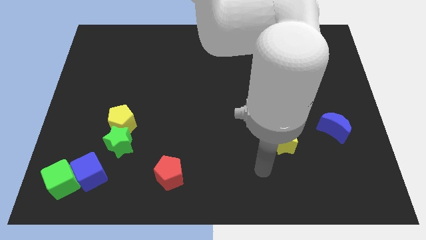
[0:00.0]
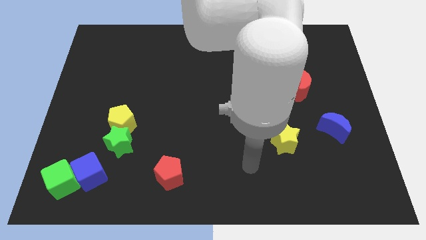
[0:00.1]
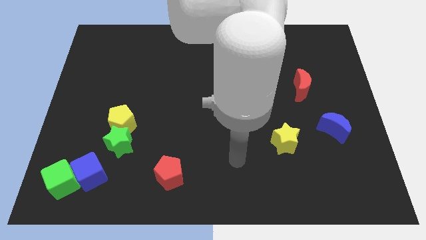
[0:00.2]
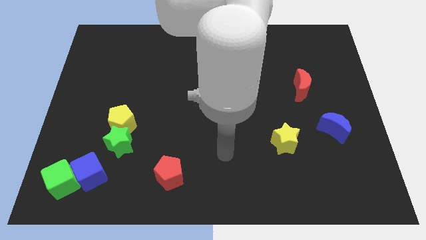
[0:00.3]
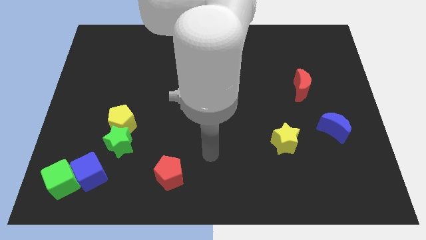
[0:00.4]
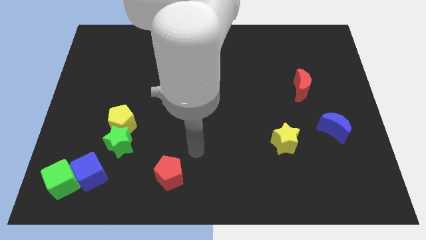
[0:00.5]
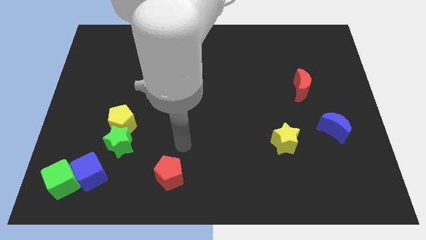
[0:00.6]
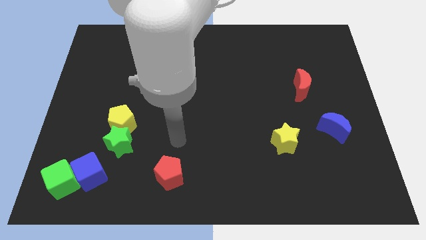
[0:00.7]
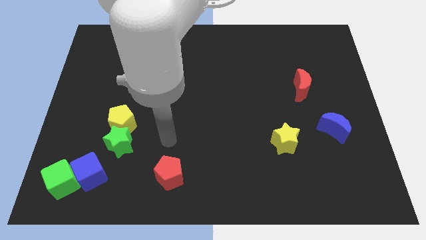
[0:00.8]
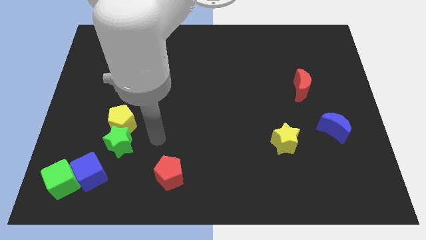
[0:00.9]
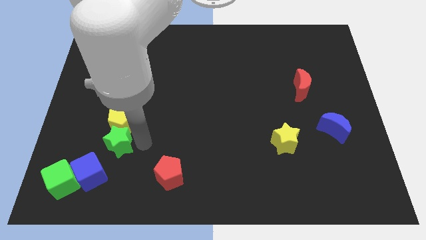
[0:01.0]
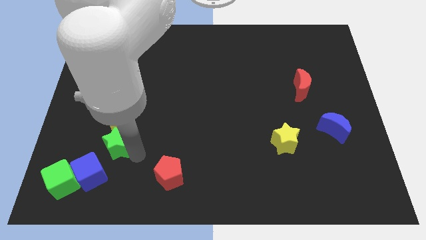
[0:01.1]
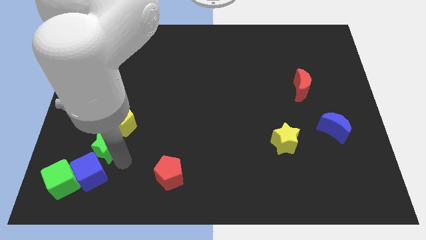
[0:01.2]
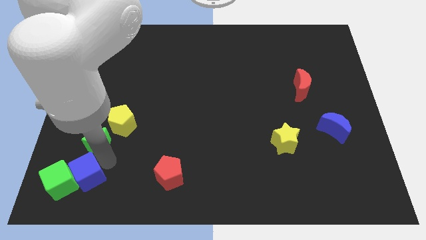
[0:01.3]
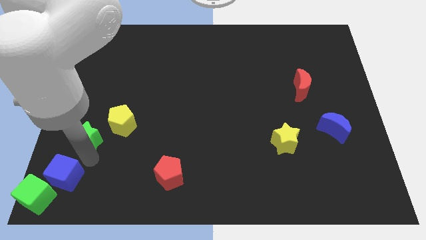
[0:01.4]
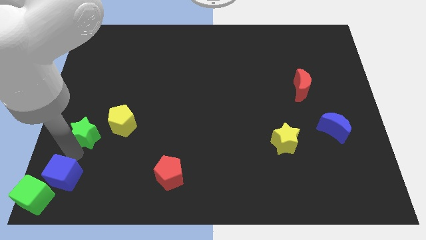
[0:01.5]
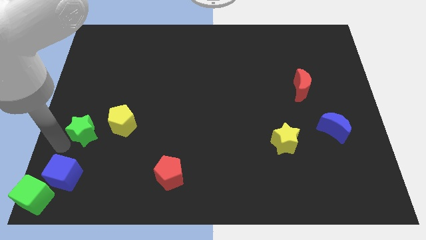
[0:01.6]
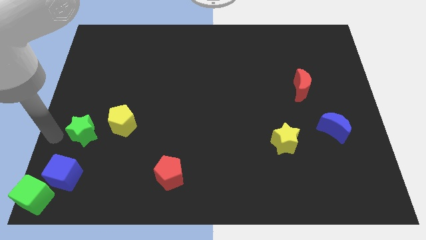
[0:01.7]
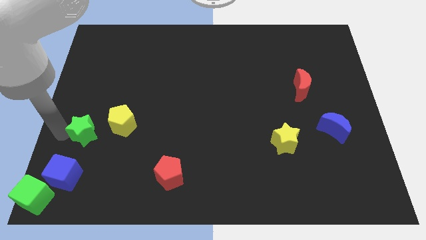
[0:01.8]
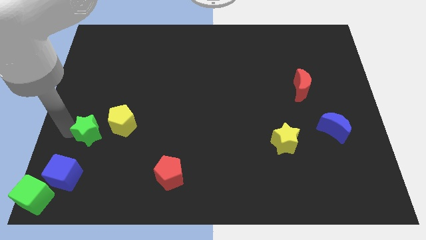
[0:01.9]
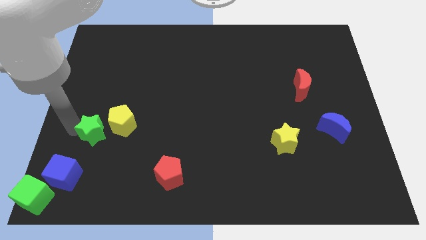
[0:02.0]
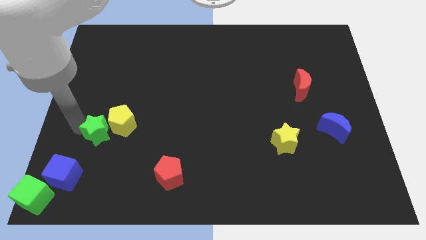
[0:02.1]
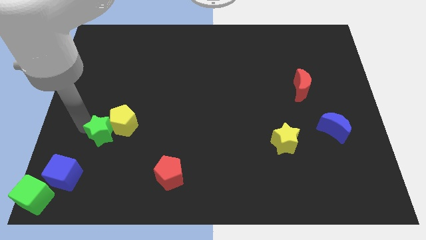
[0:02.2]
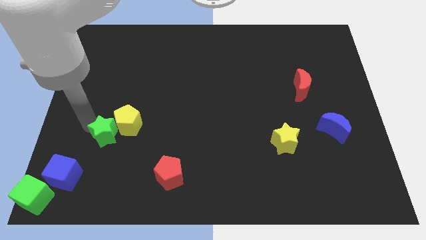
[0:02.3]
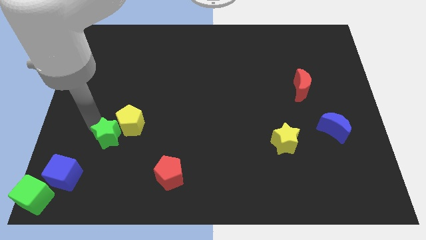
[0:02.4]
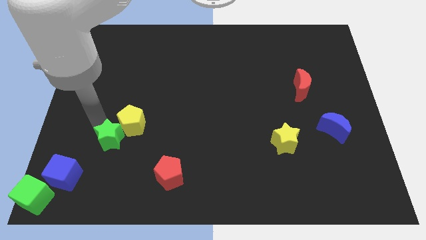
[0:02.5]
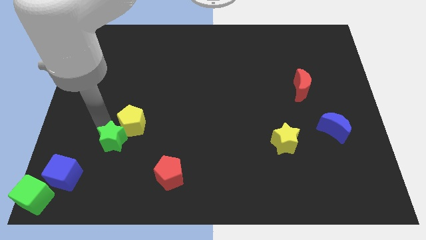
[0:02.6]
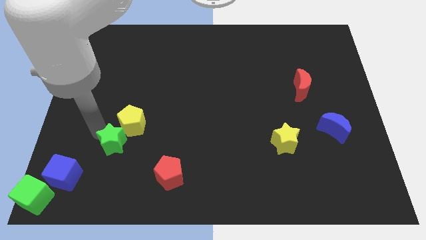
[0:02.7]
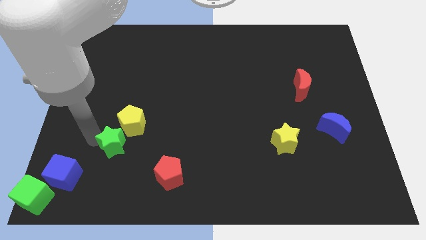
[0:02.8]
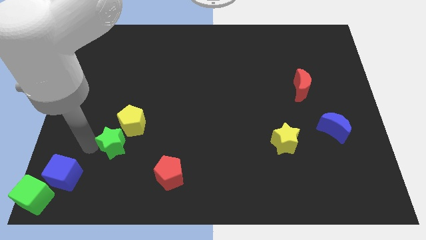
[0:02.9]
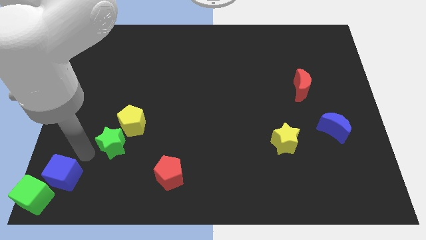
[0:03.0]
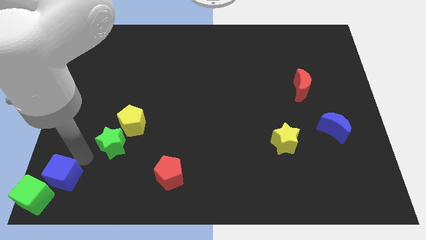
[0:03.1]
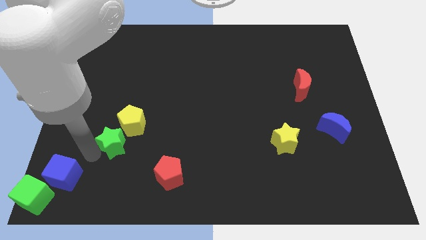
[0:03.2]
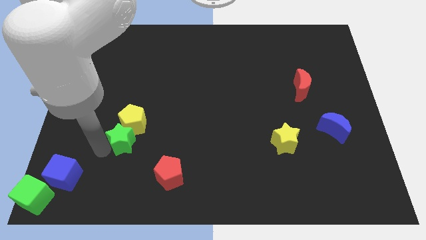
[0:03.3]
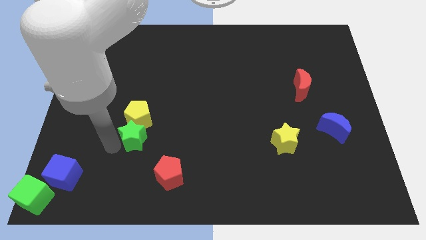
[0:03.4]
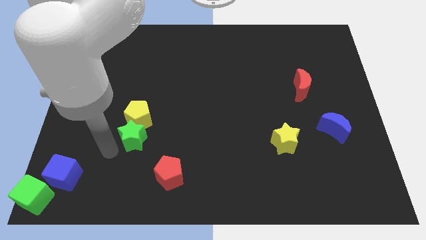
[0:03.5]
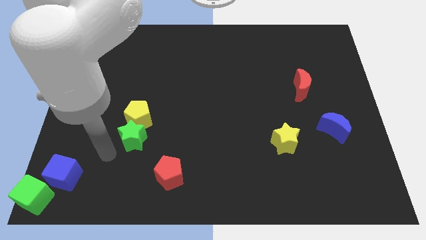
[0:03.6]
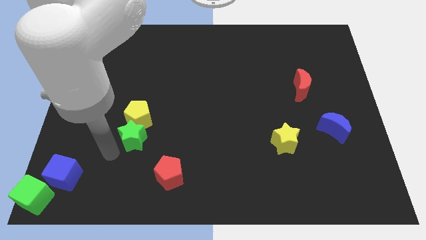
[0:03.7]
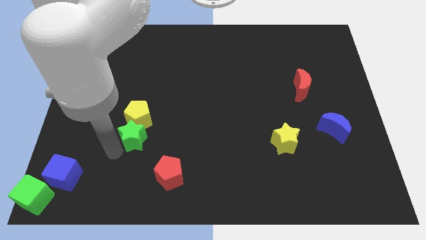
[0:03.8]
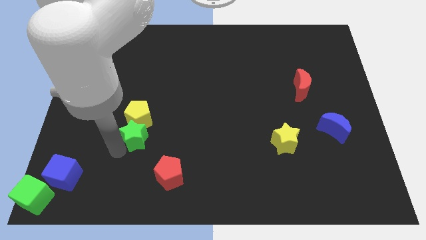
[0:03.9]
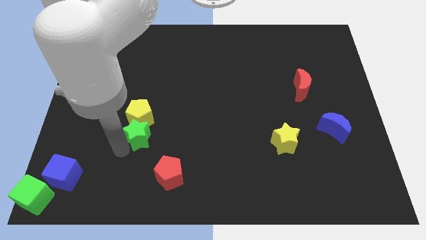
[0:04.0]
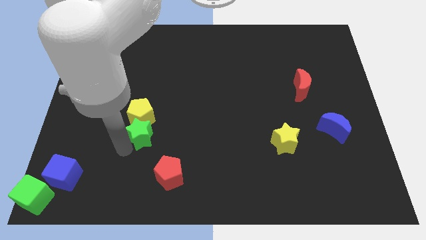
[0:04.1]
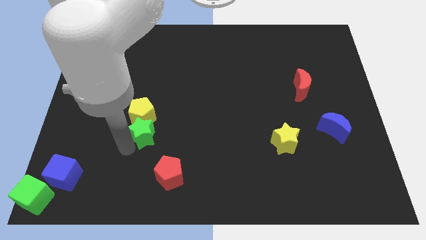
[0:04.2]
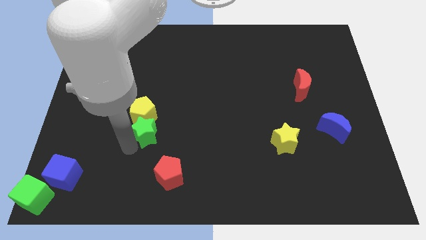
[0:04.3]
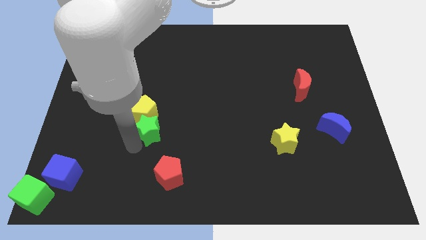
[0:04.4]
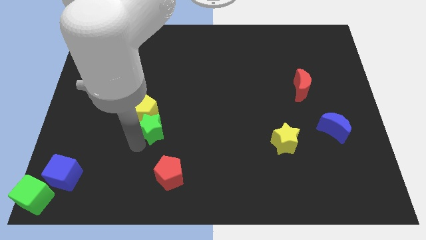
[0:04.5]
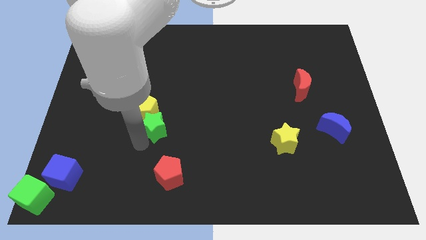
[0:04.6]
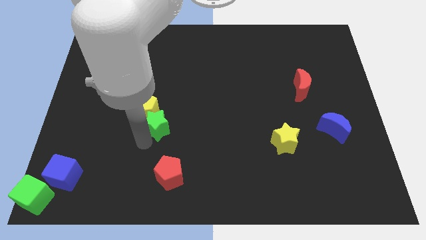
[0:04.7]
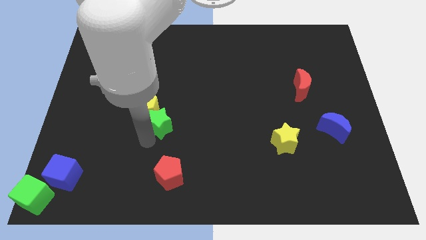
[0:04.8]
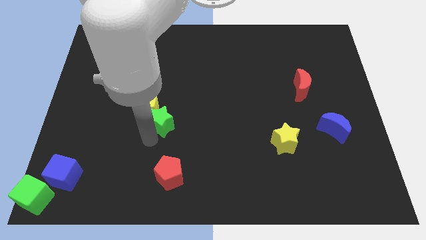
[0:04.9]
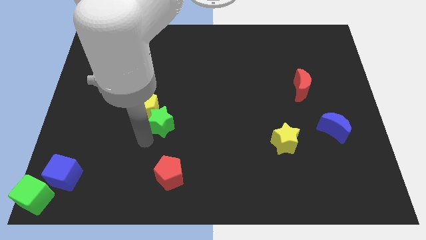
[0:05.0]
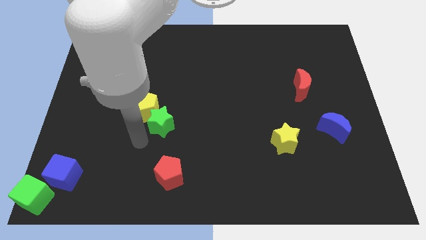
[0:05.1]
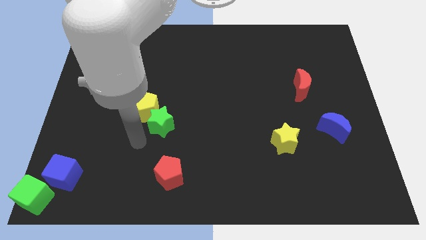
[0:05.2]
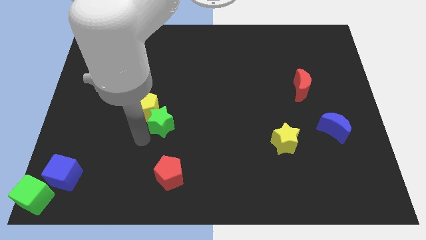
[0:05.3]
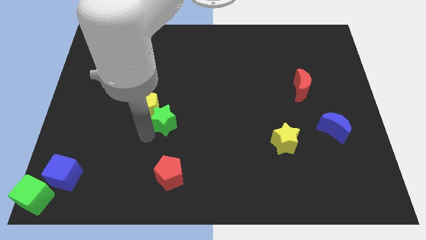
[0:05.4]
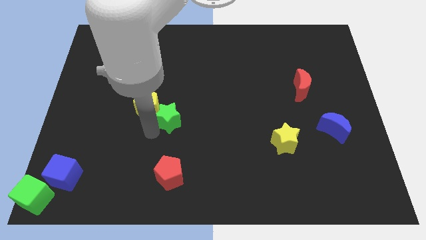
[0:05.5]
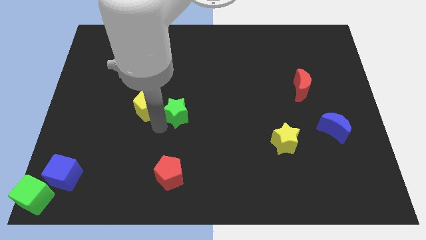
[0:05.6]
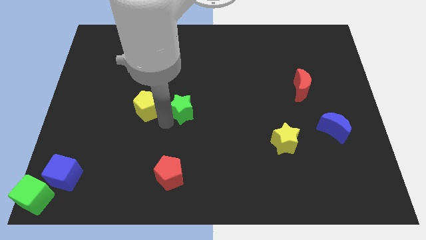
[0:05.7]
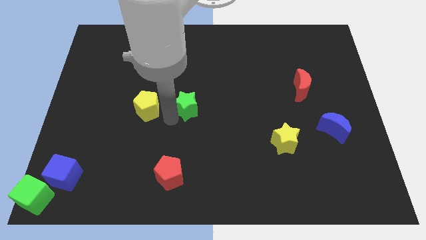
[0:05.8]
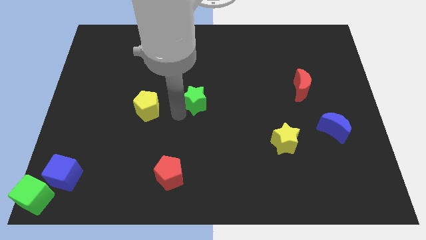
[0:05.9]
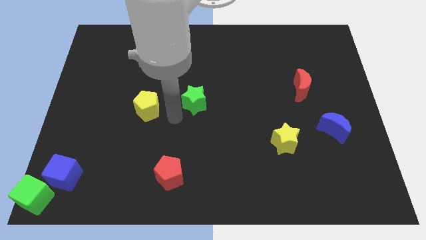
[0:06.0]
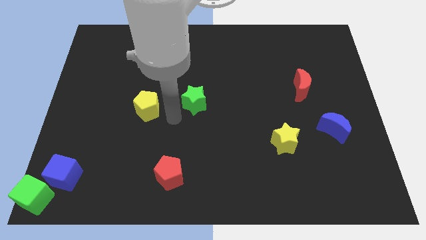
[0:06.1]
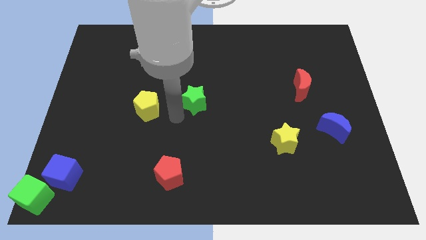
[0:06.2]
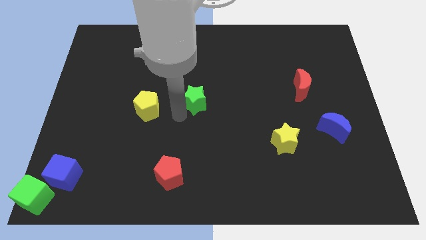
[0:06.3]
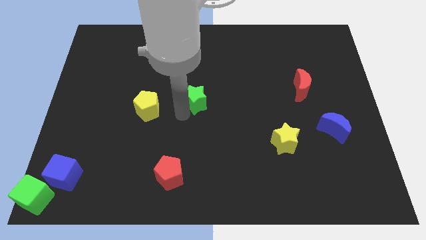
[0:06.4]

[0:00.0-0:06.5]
push the green star upwards and right

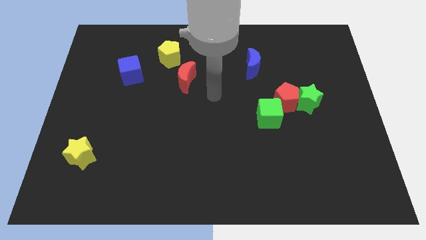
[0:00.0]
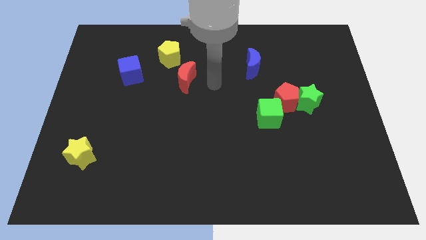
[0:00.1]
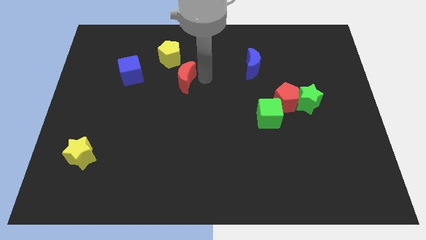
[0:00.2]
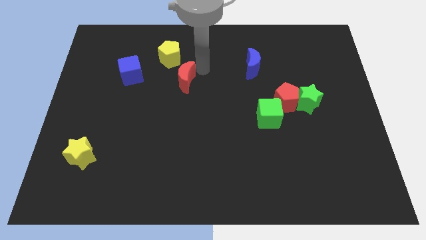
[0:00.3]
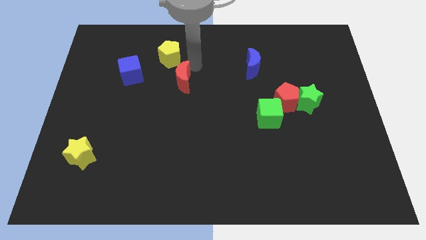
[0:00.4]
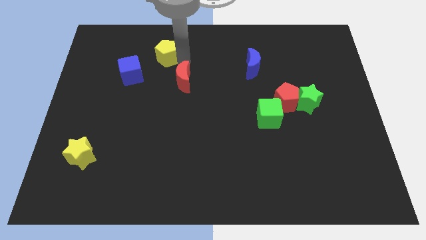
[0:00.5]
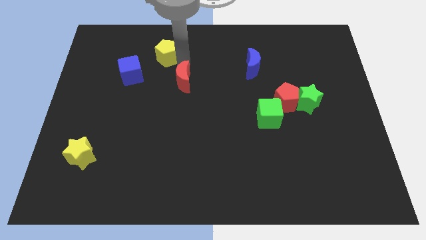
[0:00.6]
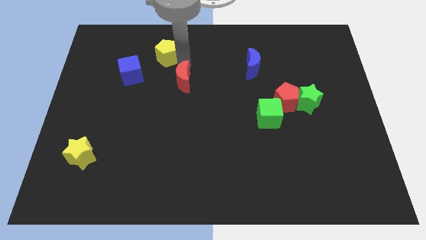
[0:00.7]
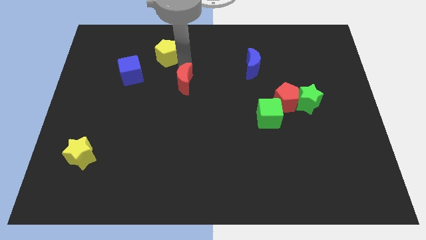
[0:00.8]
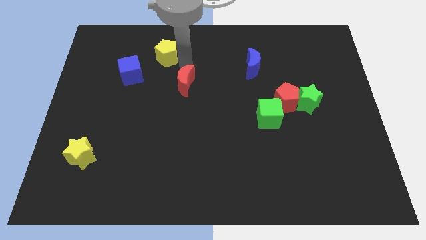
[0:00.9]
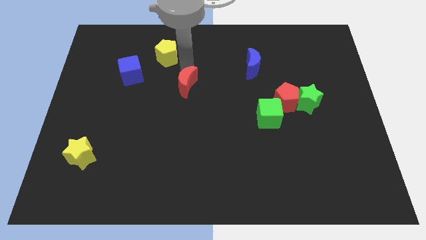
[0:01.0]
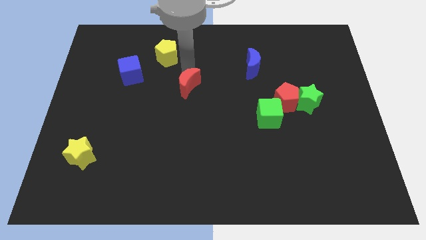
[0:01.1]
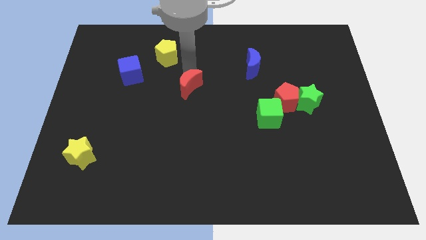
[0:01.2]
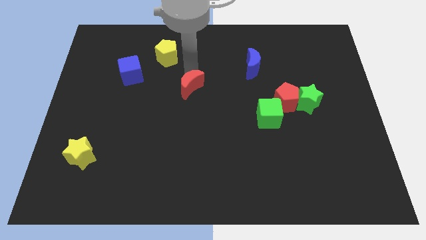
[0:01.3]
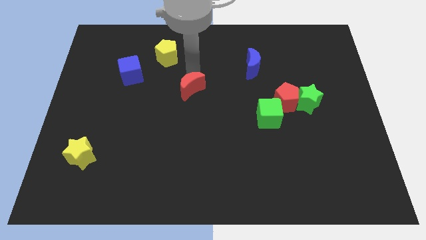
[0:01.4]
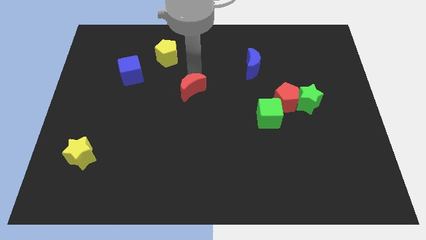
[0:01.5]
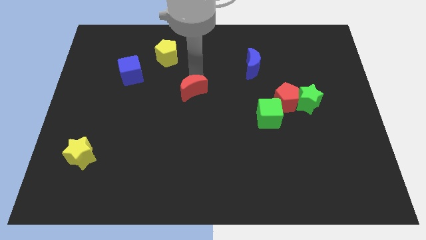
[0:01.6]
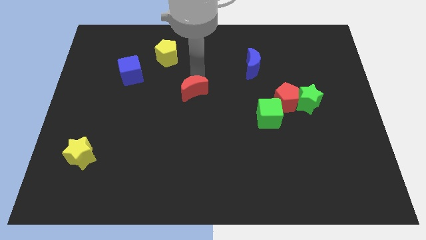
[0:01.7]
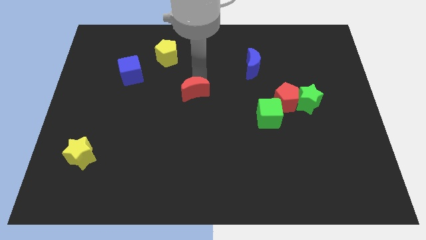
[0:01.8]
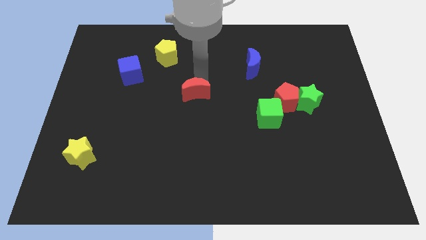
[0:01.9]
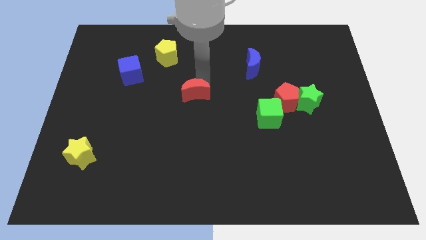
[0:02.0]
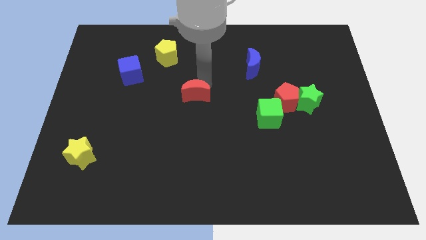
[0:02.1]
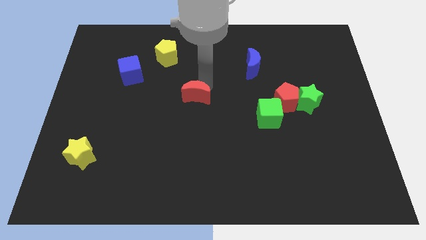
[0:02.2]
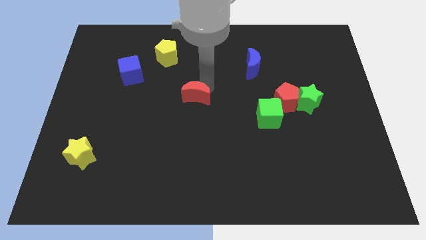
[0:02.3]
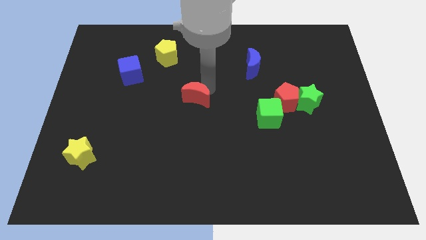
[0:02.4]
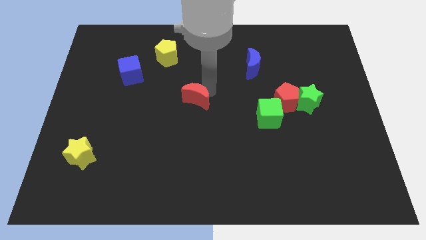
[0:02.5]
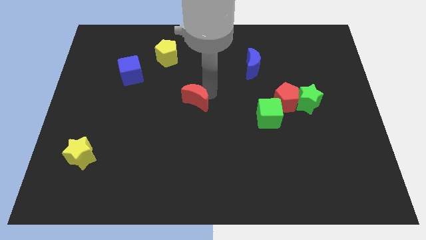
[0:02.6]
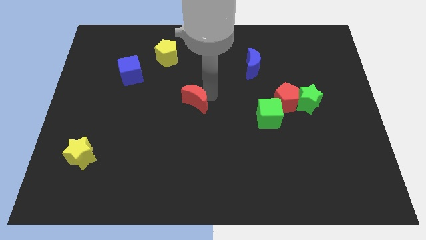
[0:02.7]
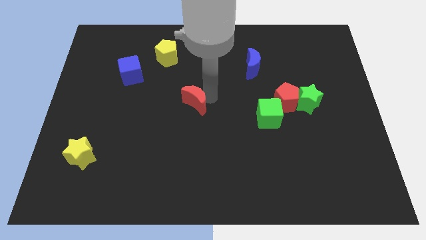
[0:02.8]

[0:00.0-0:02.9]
slightly move the red moon downwards
